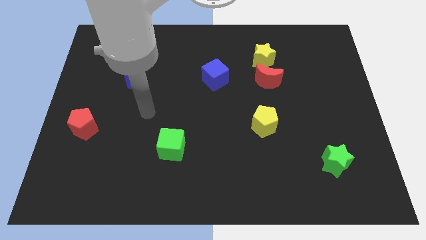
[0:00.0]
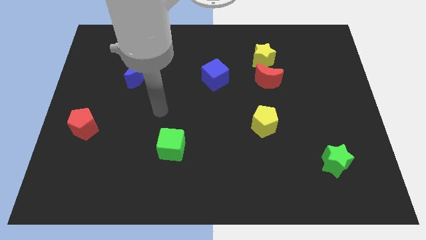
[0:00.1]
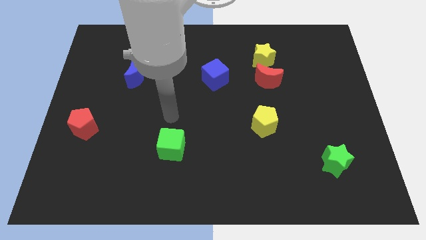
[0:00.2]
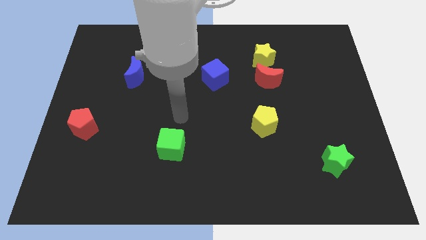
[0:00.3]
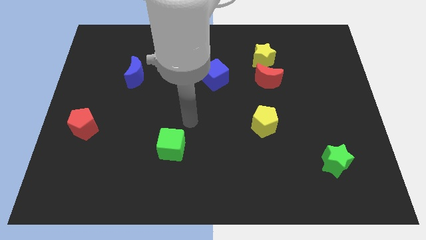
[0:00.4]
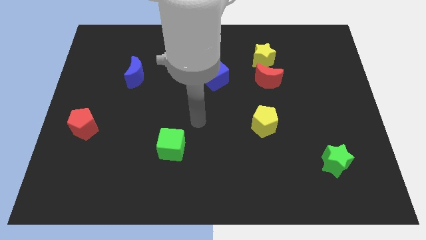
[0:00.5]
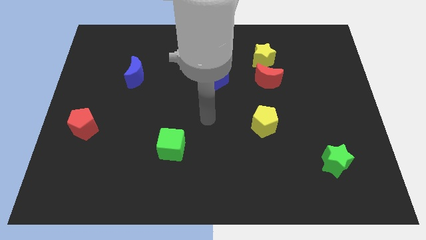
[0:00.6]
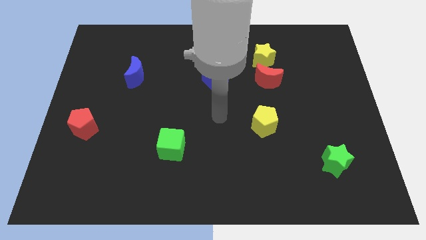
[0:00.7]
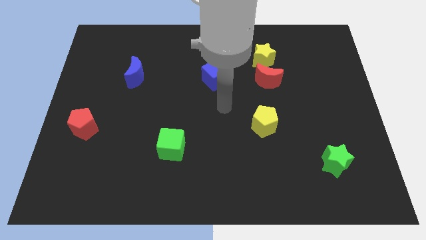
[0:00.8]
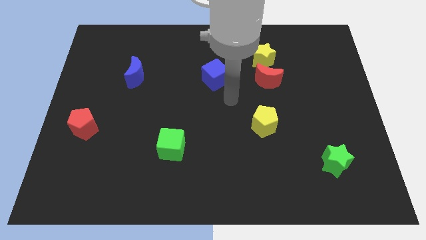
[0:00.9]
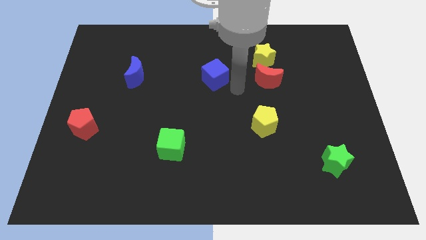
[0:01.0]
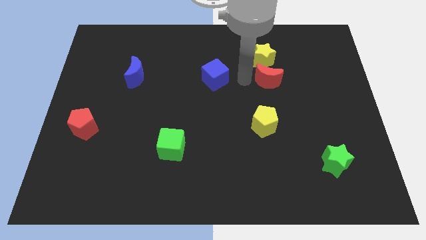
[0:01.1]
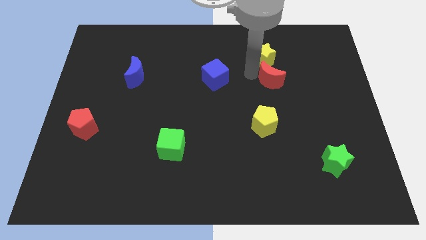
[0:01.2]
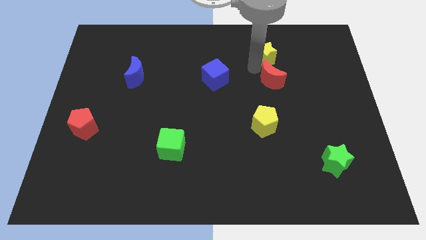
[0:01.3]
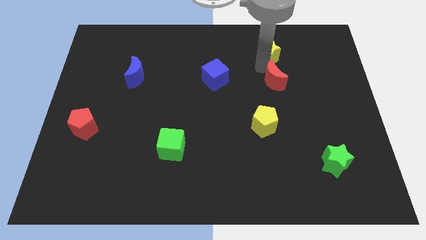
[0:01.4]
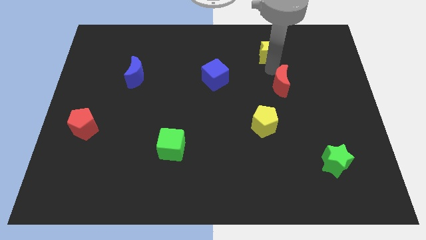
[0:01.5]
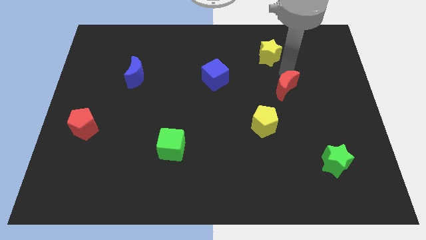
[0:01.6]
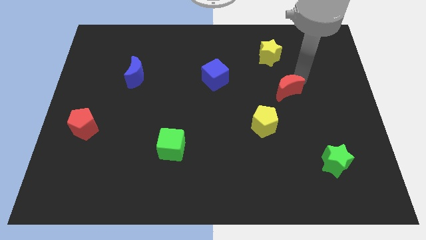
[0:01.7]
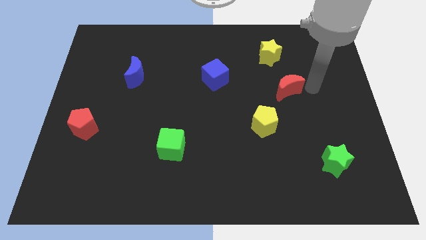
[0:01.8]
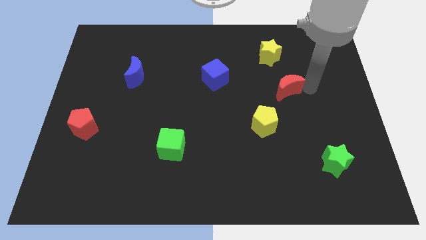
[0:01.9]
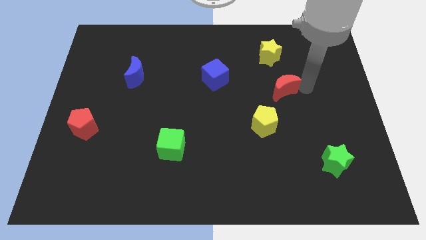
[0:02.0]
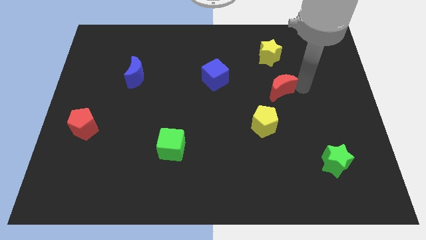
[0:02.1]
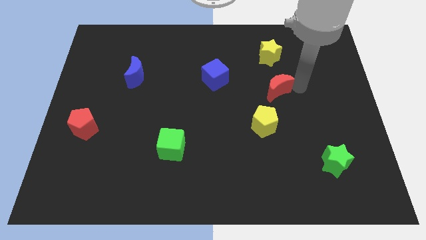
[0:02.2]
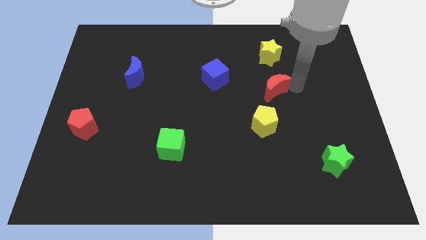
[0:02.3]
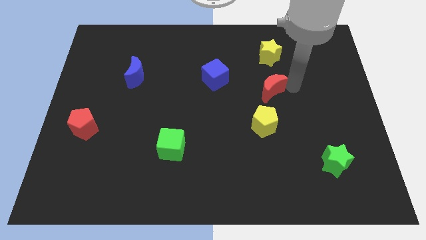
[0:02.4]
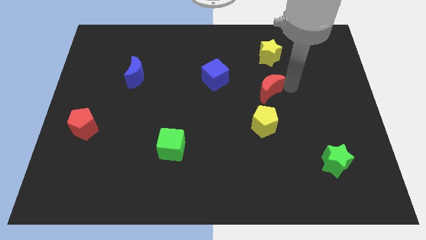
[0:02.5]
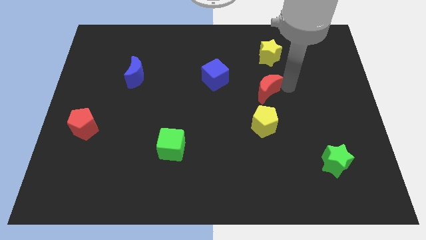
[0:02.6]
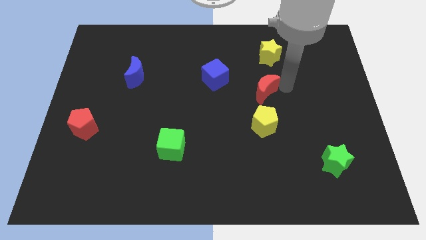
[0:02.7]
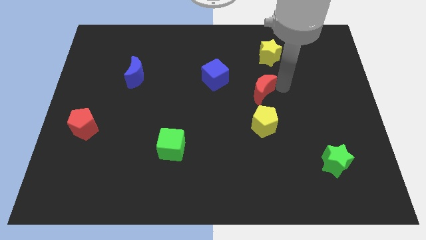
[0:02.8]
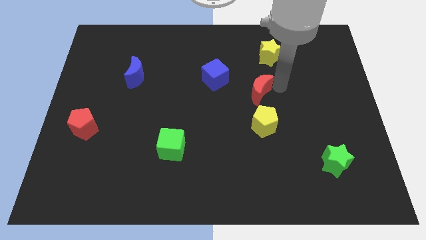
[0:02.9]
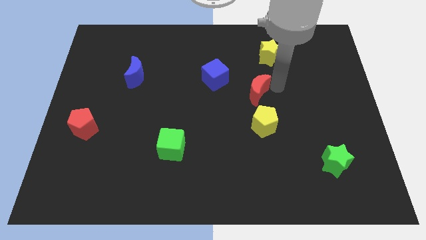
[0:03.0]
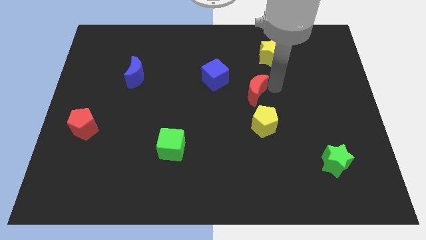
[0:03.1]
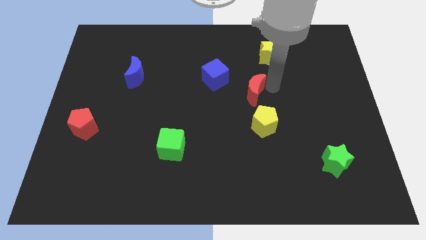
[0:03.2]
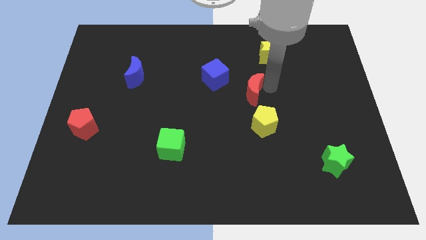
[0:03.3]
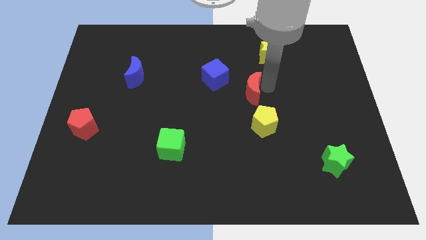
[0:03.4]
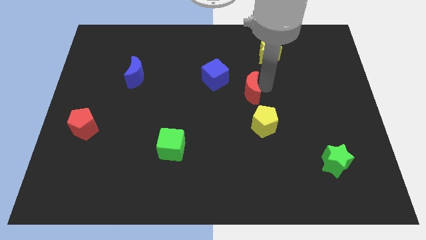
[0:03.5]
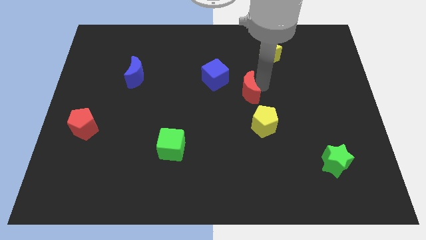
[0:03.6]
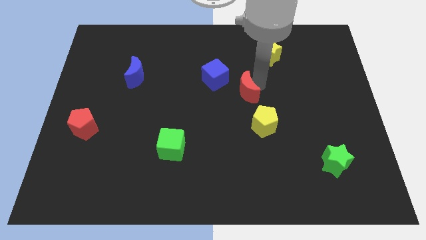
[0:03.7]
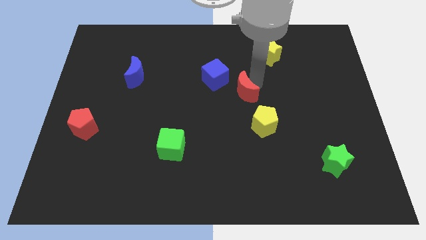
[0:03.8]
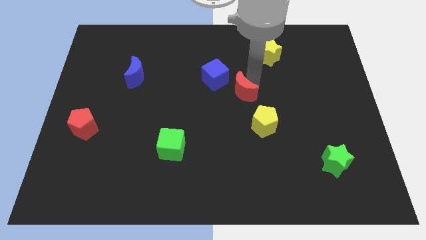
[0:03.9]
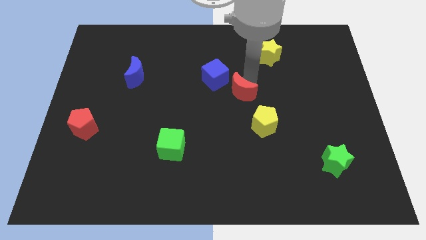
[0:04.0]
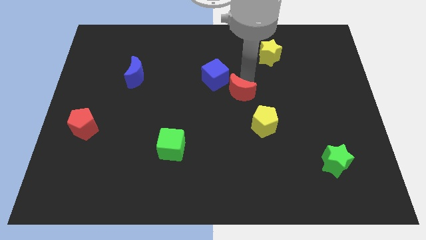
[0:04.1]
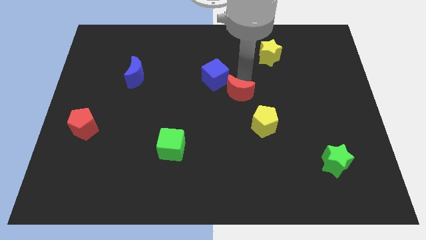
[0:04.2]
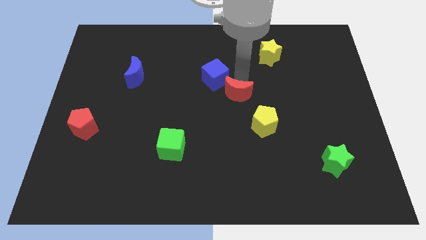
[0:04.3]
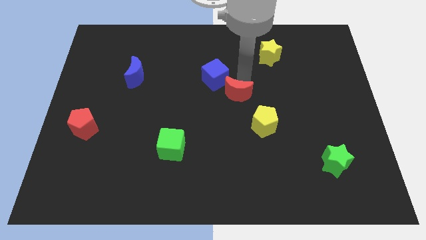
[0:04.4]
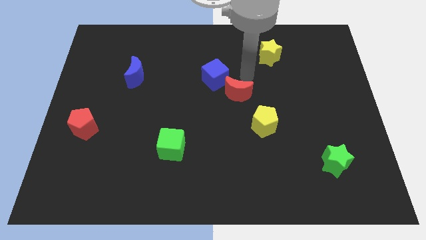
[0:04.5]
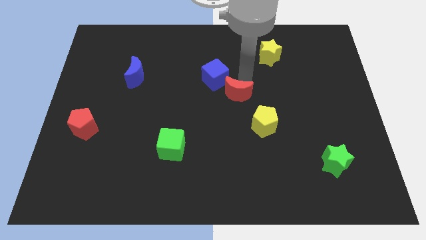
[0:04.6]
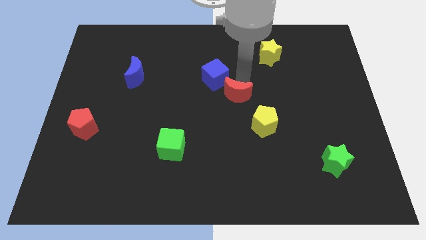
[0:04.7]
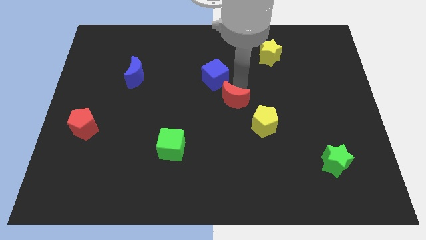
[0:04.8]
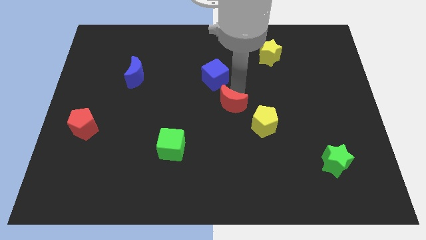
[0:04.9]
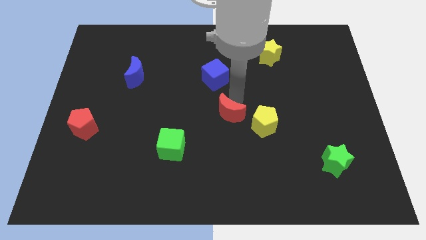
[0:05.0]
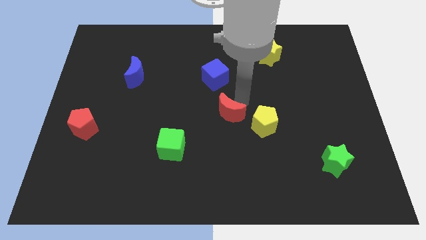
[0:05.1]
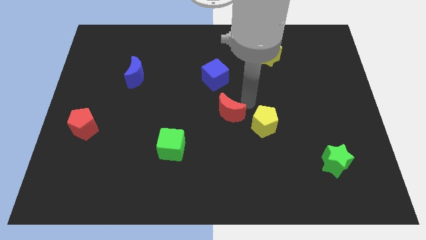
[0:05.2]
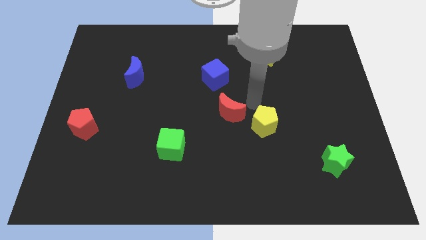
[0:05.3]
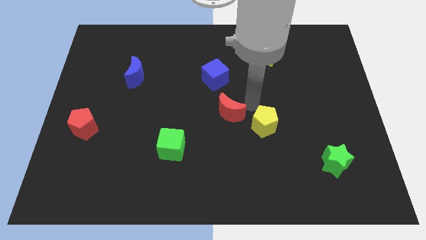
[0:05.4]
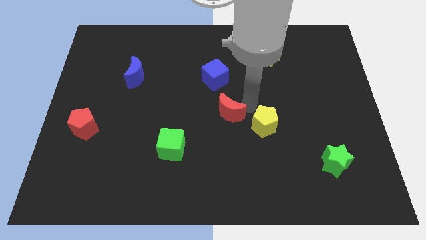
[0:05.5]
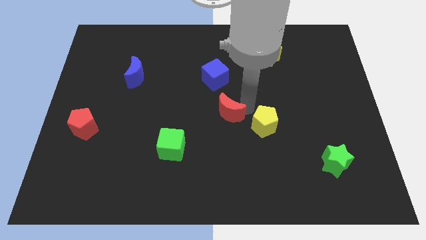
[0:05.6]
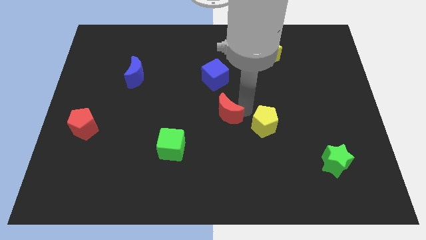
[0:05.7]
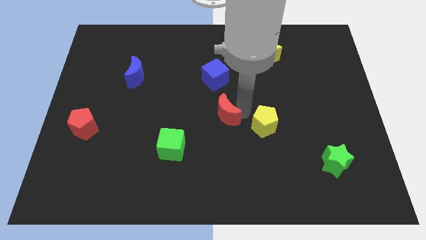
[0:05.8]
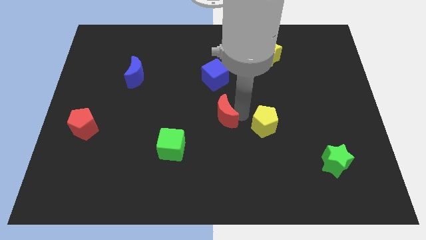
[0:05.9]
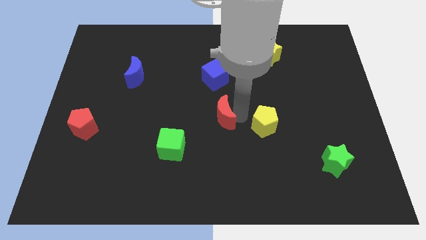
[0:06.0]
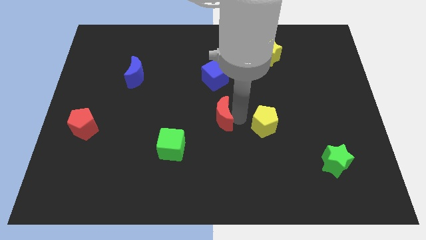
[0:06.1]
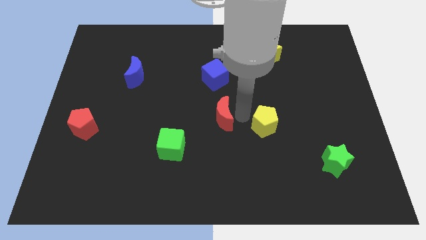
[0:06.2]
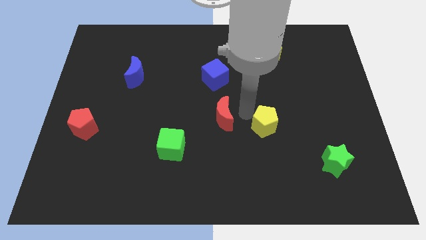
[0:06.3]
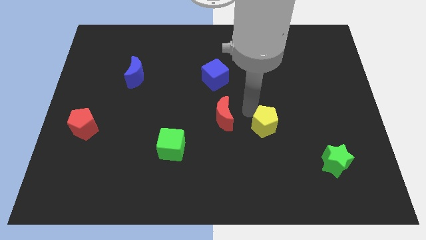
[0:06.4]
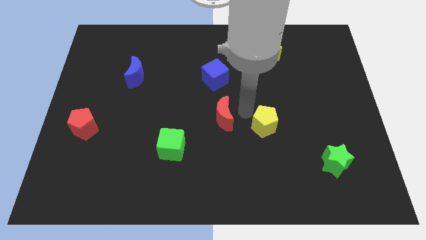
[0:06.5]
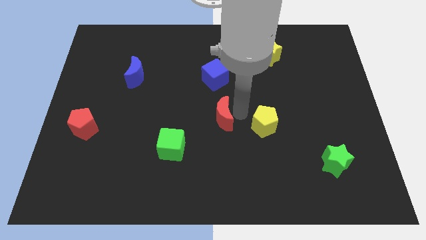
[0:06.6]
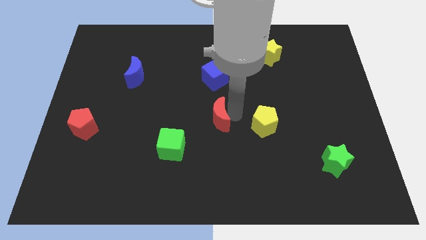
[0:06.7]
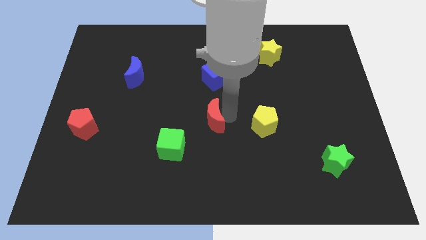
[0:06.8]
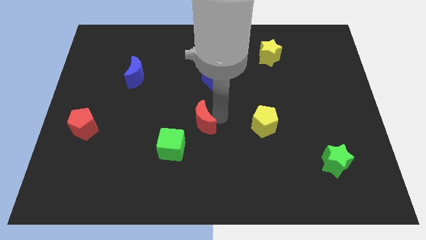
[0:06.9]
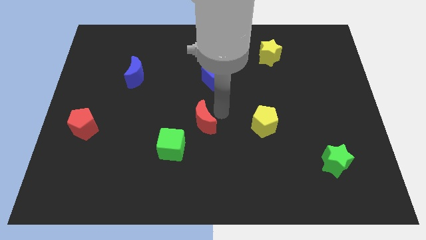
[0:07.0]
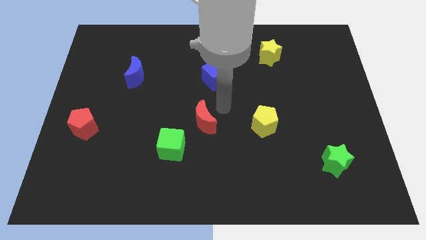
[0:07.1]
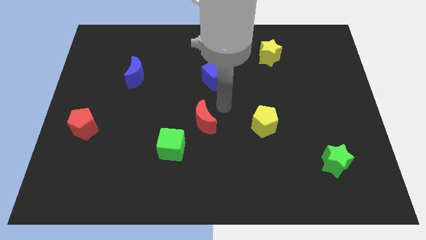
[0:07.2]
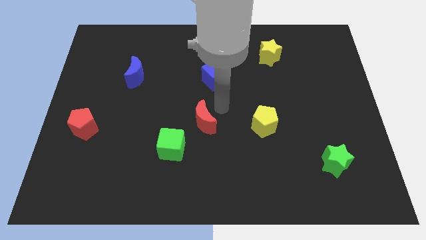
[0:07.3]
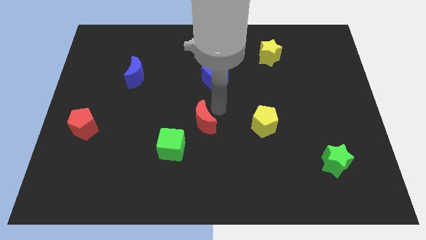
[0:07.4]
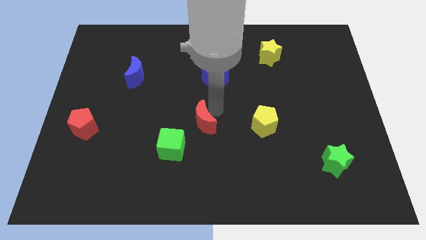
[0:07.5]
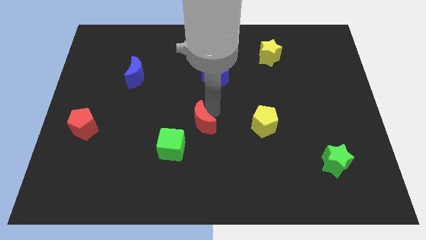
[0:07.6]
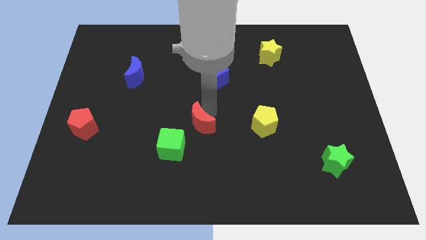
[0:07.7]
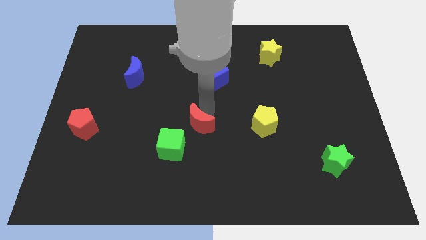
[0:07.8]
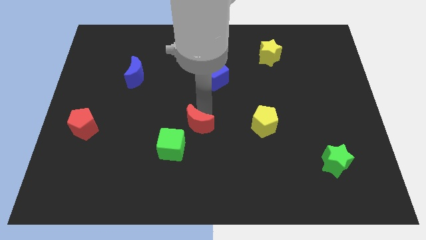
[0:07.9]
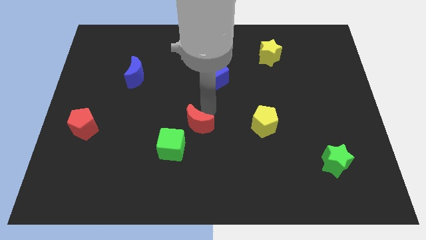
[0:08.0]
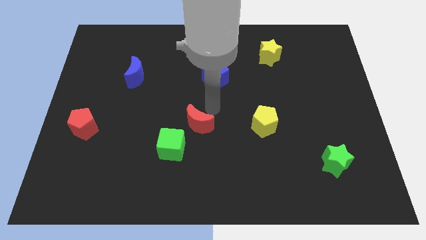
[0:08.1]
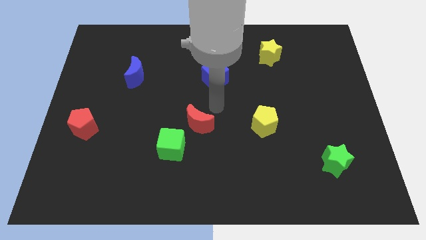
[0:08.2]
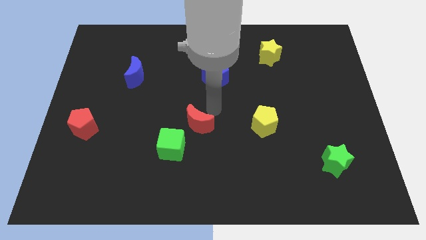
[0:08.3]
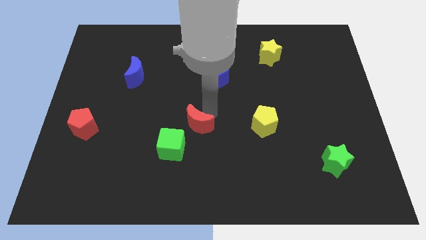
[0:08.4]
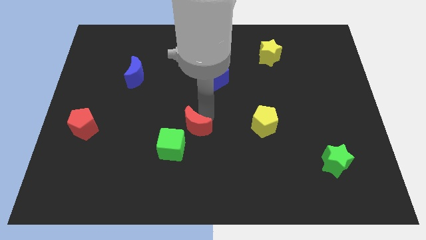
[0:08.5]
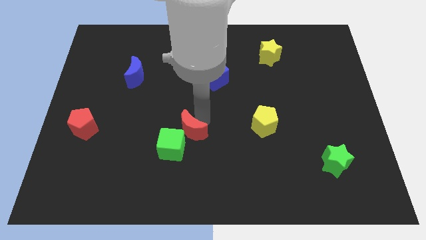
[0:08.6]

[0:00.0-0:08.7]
push the red moon to the green cube
